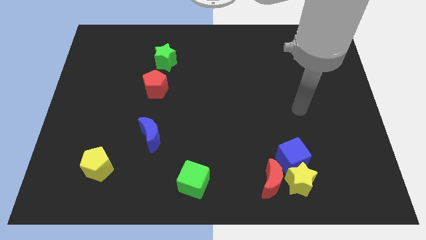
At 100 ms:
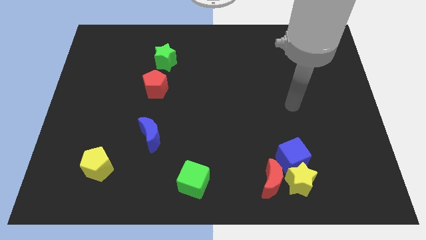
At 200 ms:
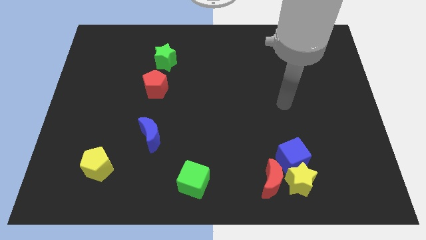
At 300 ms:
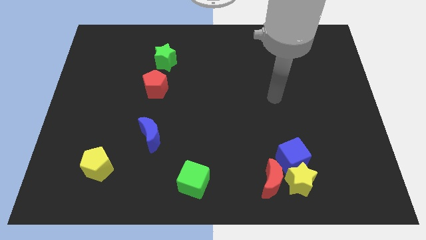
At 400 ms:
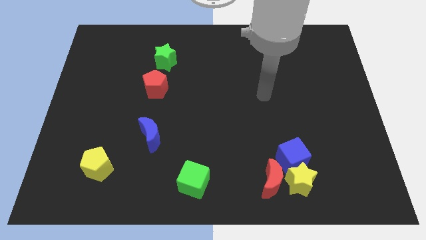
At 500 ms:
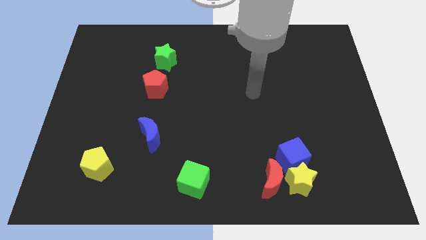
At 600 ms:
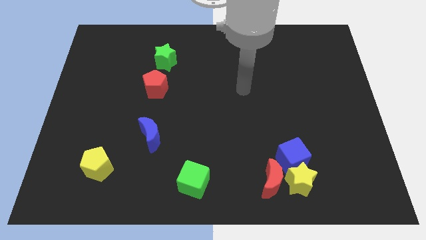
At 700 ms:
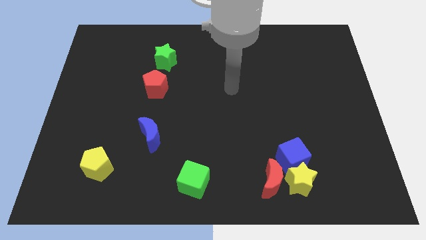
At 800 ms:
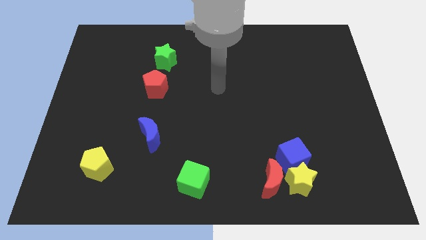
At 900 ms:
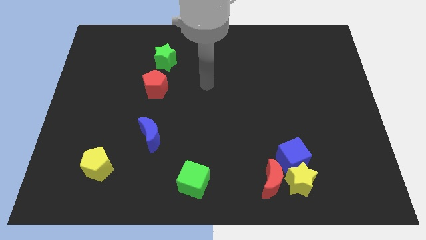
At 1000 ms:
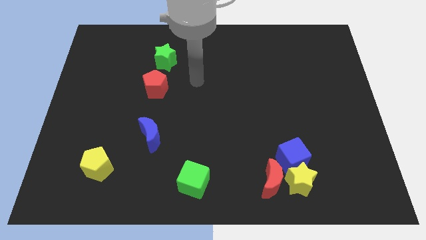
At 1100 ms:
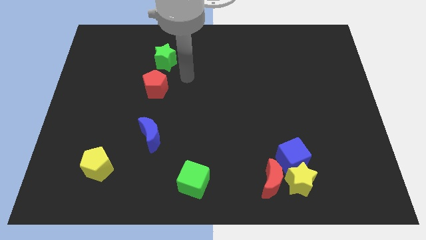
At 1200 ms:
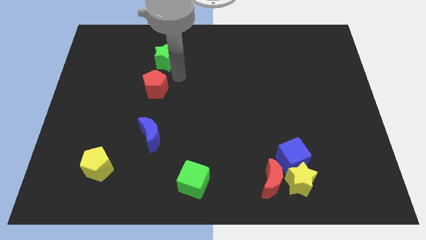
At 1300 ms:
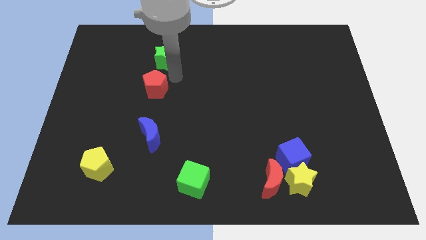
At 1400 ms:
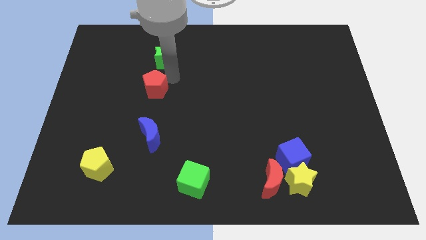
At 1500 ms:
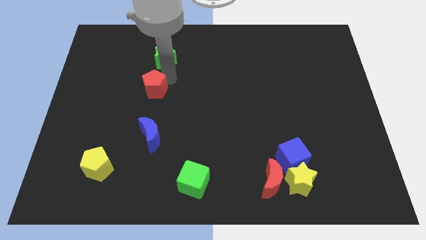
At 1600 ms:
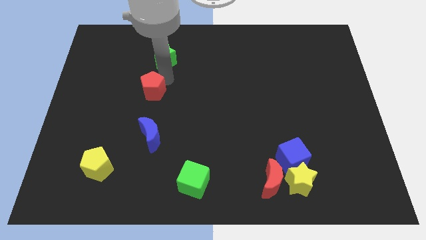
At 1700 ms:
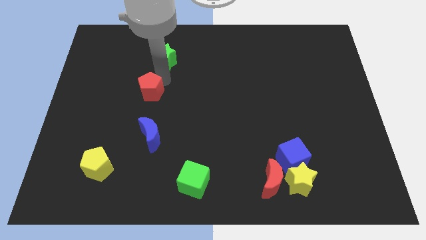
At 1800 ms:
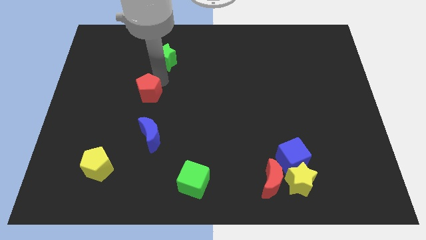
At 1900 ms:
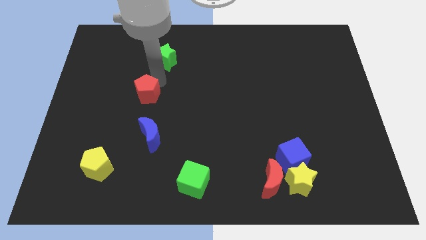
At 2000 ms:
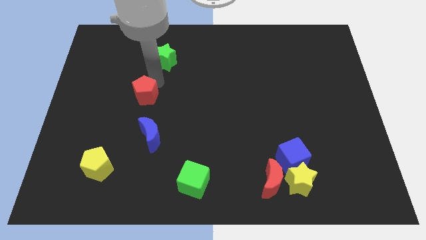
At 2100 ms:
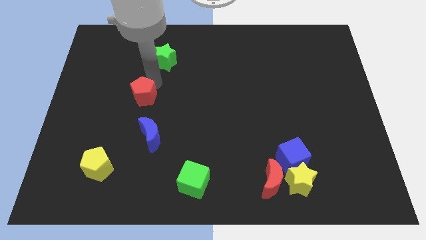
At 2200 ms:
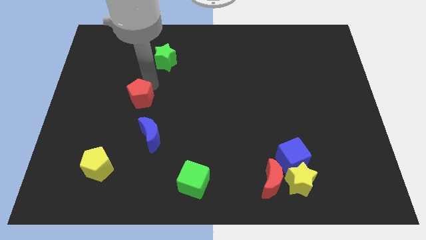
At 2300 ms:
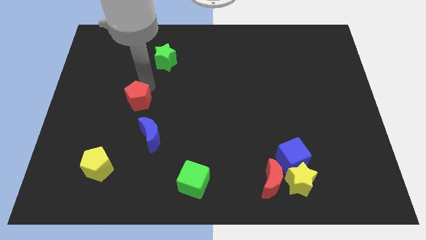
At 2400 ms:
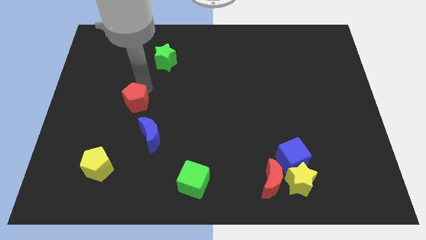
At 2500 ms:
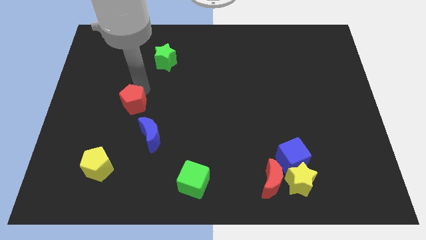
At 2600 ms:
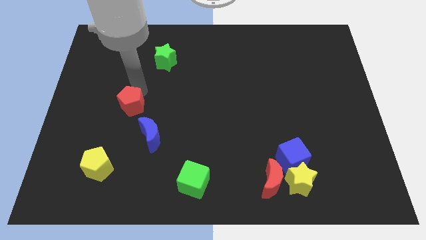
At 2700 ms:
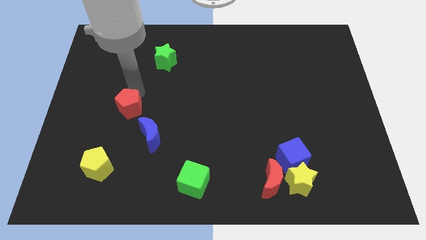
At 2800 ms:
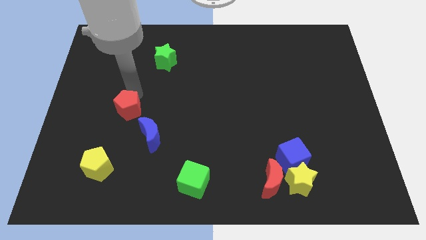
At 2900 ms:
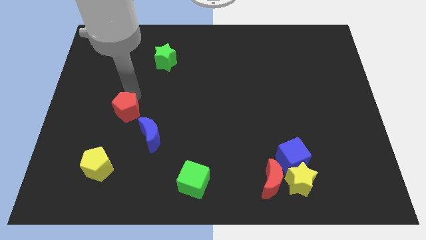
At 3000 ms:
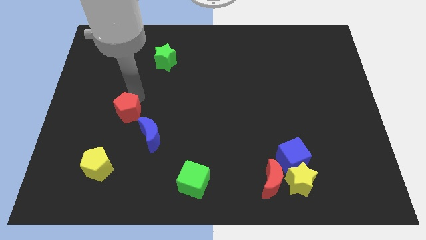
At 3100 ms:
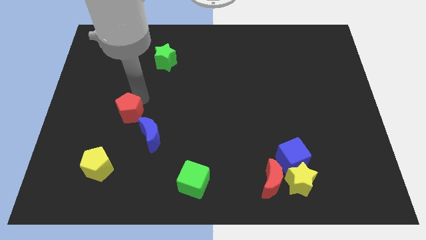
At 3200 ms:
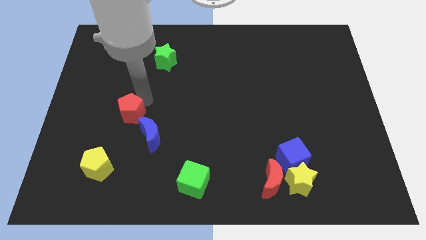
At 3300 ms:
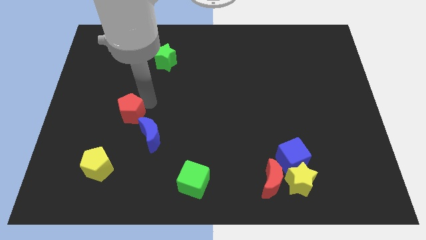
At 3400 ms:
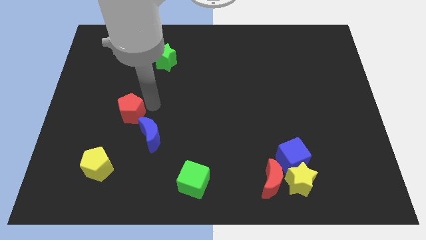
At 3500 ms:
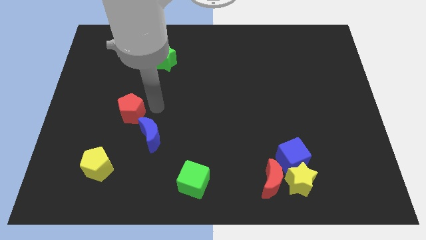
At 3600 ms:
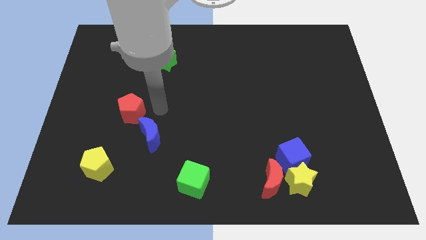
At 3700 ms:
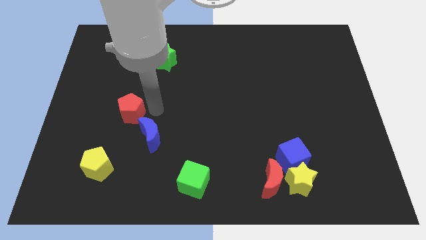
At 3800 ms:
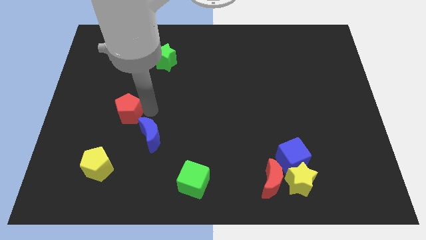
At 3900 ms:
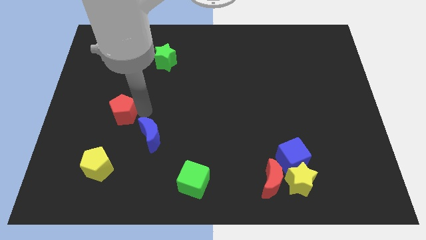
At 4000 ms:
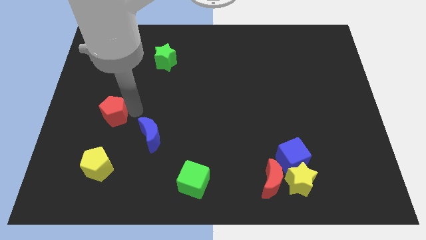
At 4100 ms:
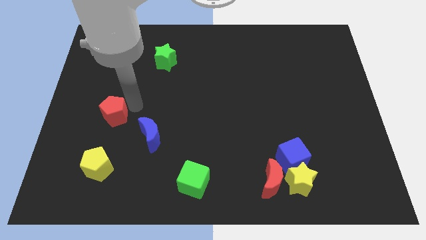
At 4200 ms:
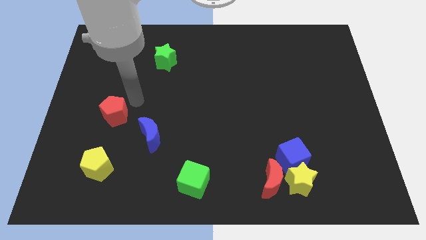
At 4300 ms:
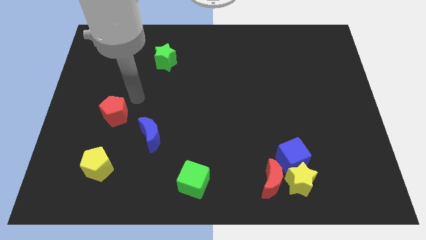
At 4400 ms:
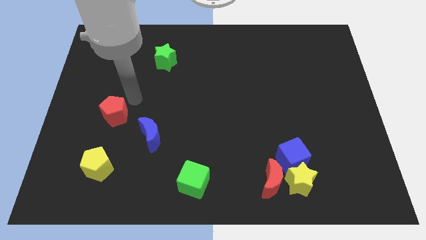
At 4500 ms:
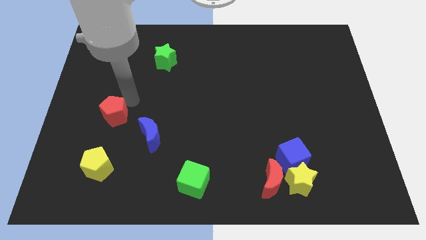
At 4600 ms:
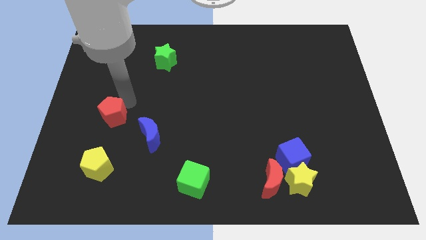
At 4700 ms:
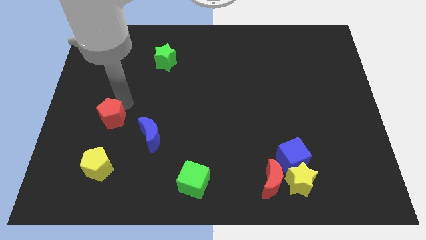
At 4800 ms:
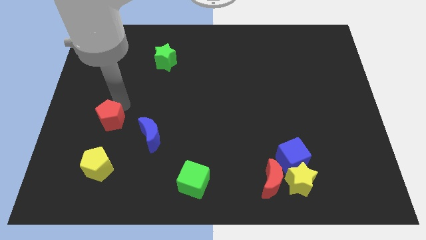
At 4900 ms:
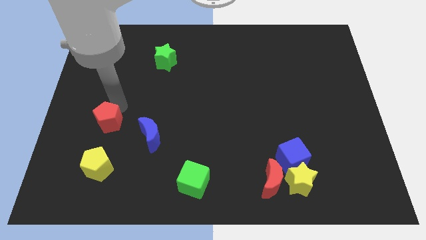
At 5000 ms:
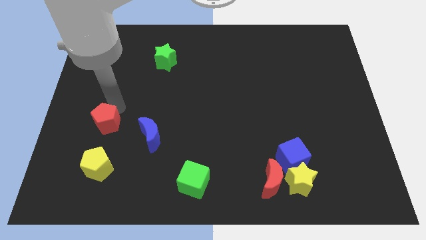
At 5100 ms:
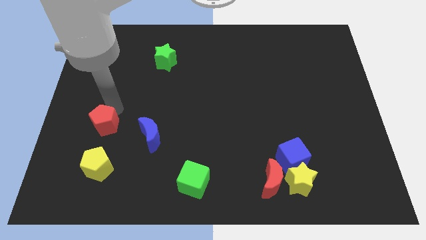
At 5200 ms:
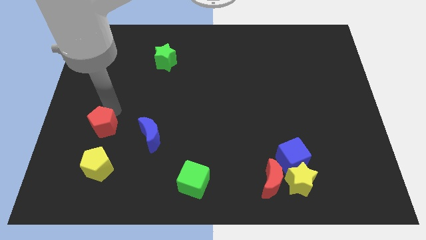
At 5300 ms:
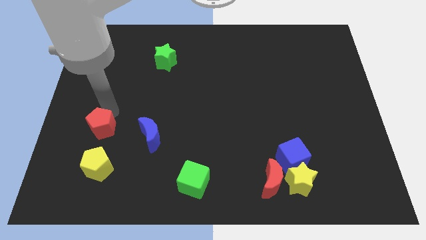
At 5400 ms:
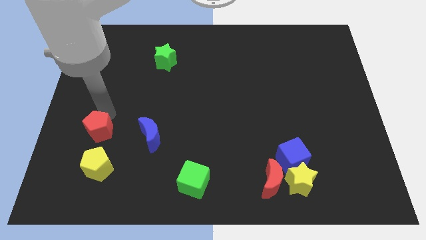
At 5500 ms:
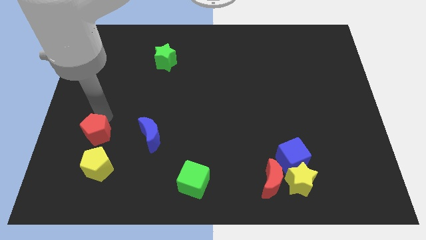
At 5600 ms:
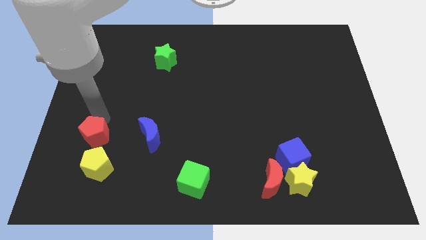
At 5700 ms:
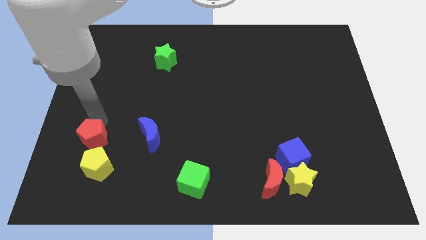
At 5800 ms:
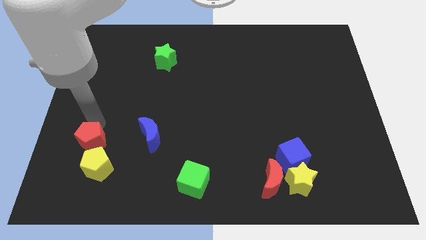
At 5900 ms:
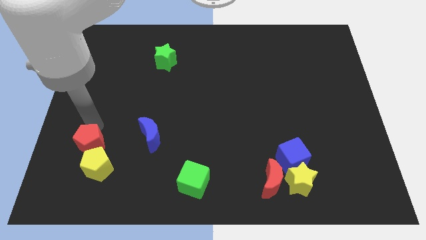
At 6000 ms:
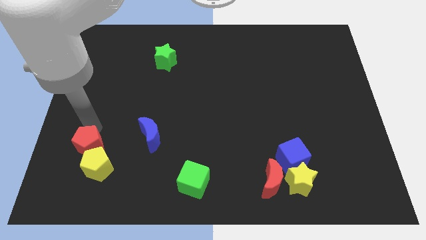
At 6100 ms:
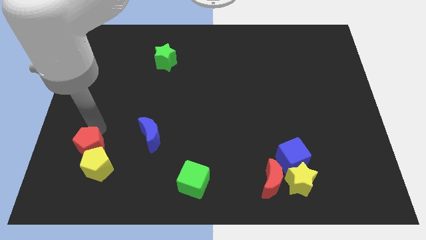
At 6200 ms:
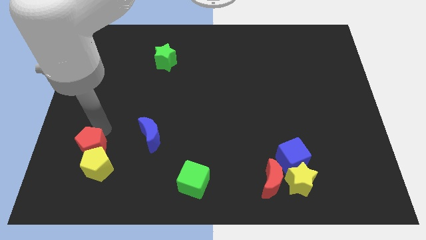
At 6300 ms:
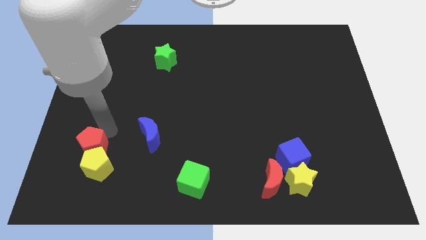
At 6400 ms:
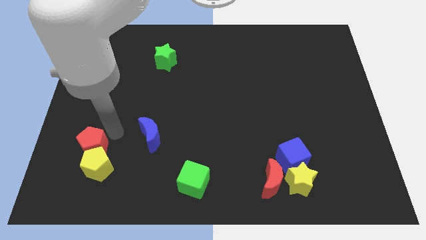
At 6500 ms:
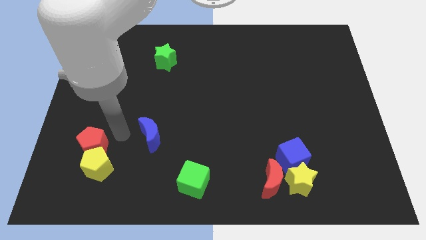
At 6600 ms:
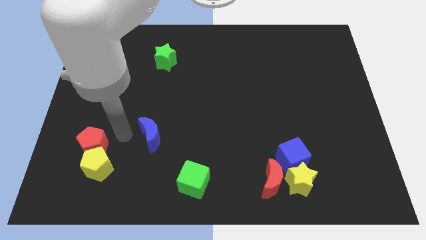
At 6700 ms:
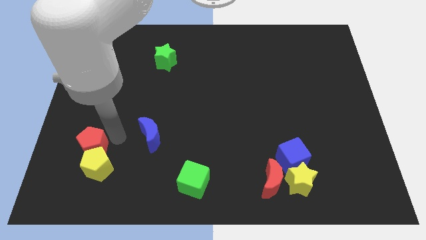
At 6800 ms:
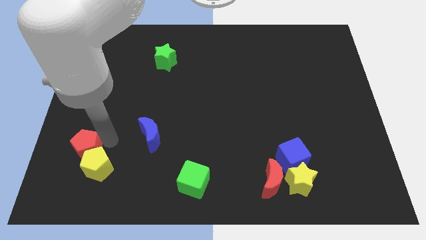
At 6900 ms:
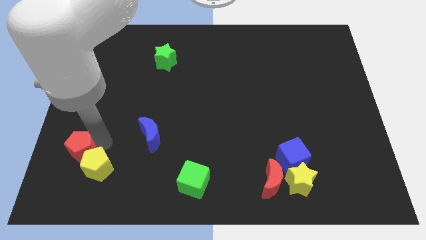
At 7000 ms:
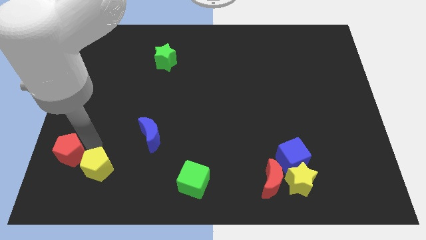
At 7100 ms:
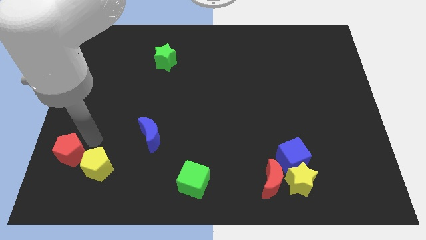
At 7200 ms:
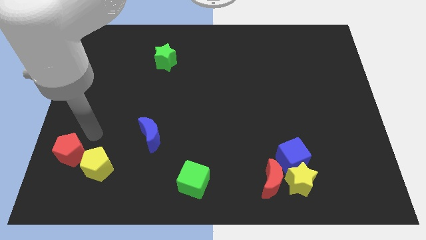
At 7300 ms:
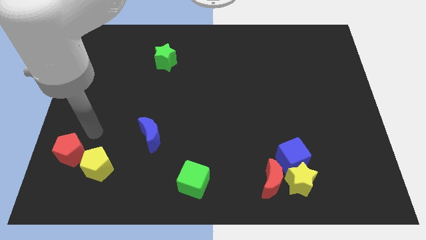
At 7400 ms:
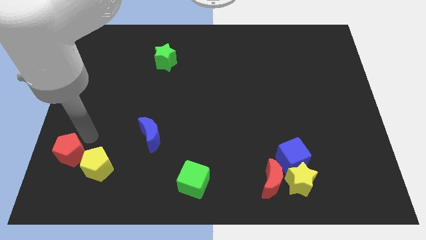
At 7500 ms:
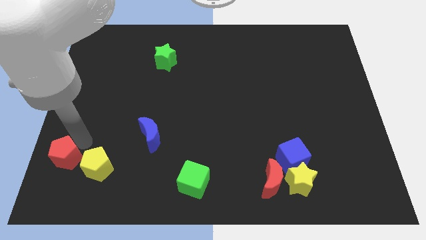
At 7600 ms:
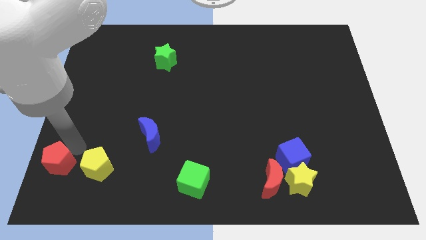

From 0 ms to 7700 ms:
push the red pentagon to the lower left corner
